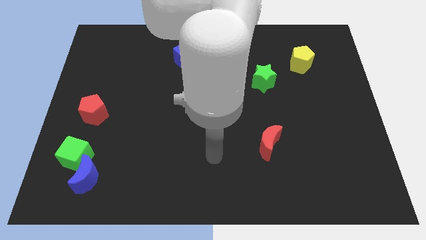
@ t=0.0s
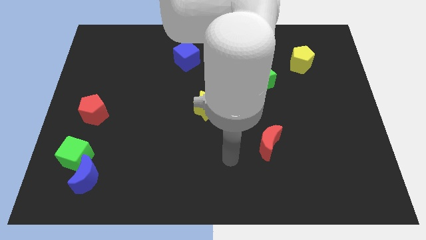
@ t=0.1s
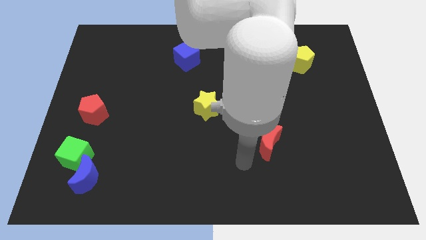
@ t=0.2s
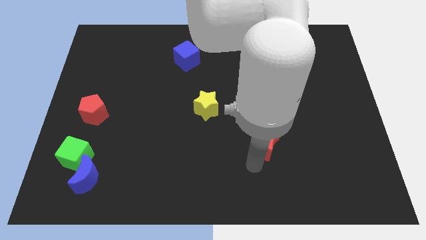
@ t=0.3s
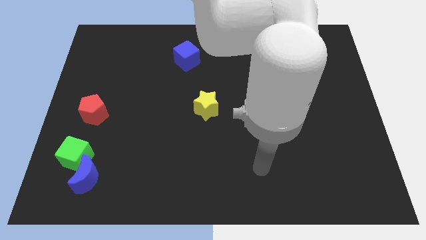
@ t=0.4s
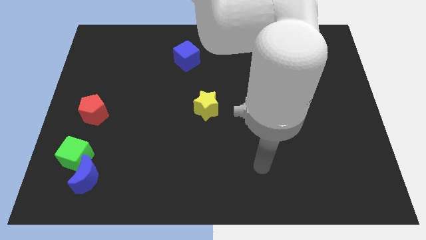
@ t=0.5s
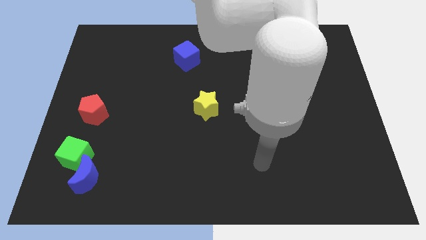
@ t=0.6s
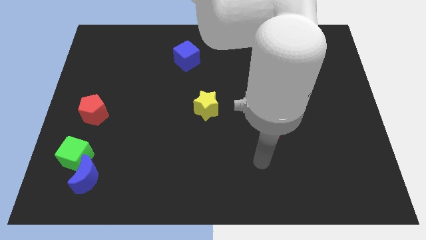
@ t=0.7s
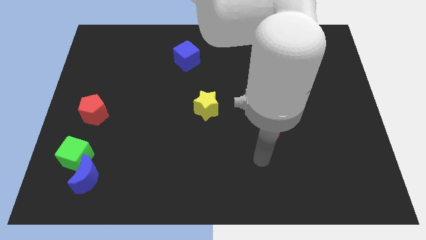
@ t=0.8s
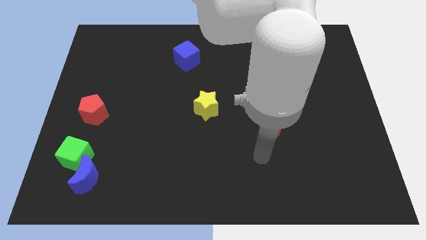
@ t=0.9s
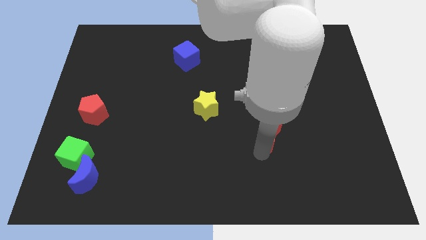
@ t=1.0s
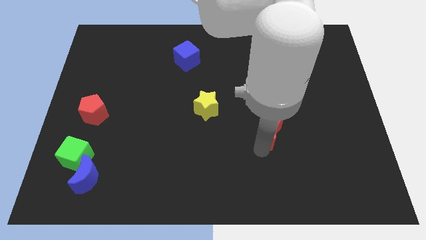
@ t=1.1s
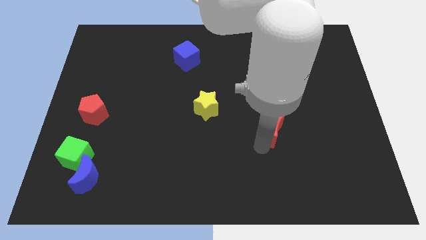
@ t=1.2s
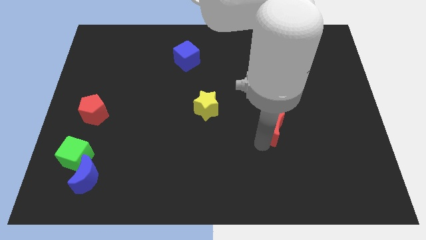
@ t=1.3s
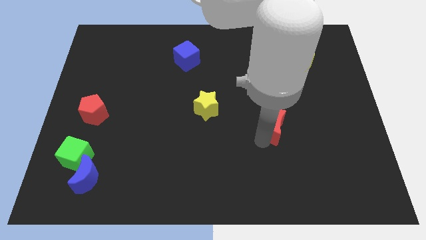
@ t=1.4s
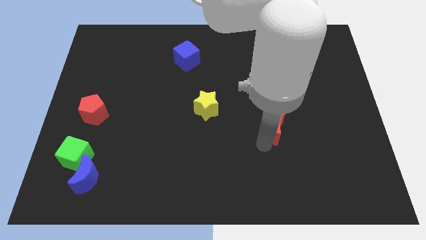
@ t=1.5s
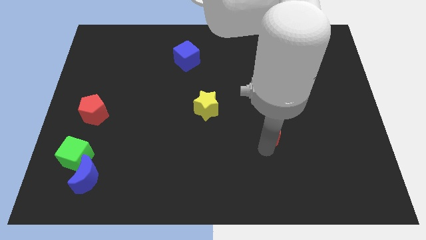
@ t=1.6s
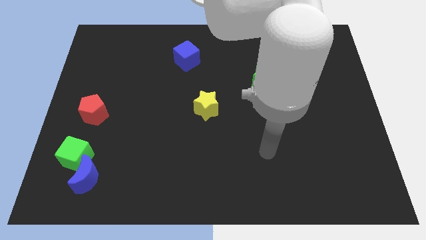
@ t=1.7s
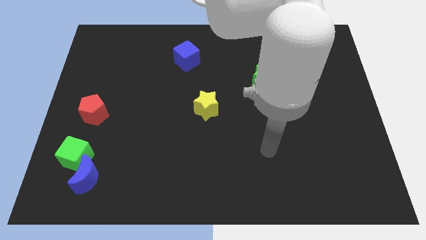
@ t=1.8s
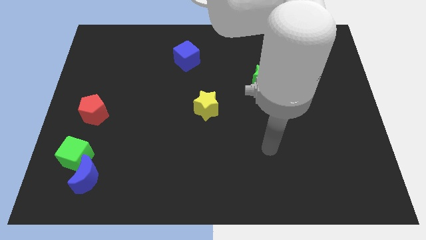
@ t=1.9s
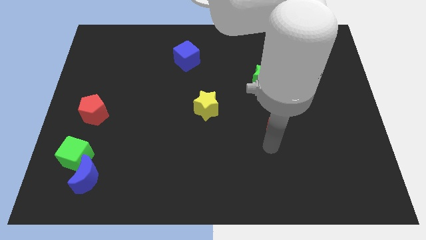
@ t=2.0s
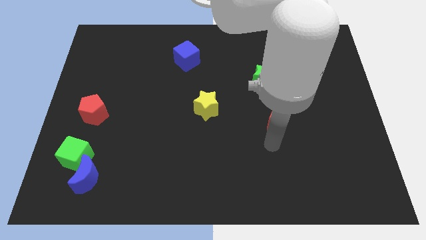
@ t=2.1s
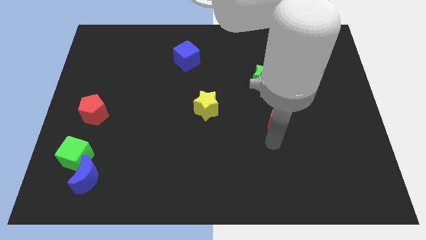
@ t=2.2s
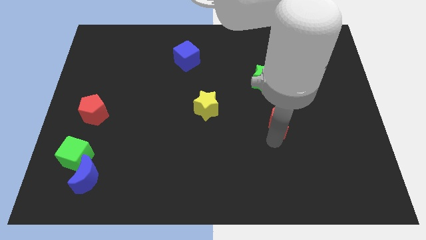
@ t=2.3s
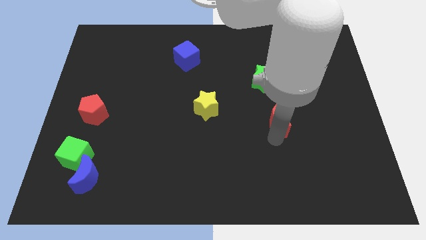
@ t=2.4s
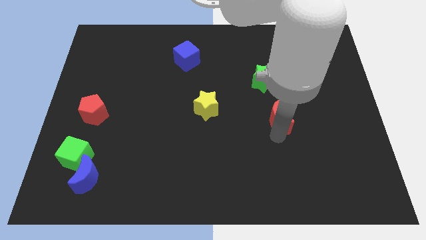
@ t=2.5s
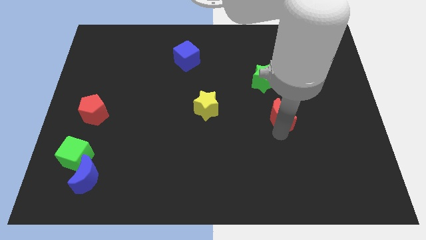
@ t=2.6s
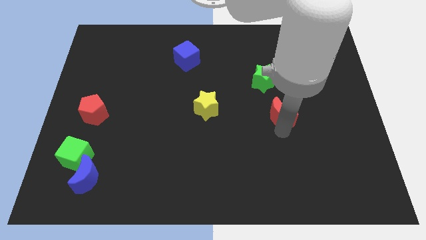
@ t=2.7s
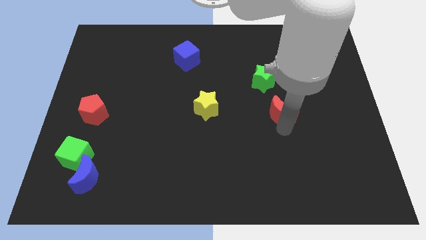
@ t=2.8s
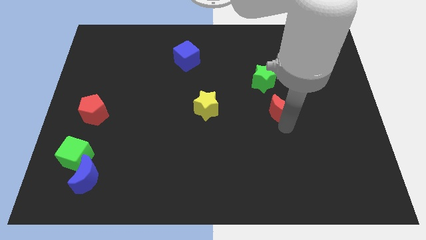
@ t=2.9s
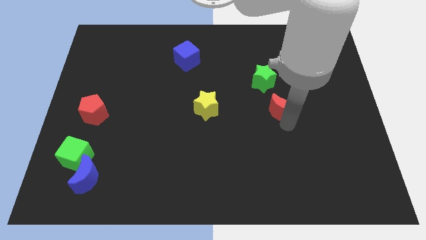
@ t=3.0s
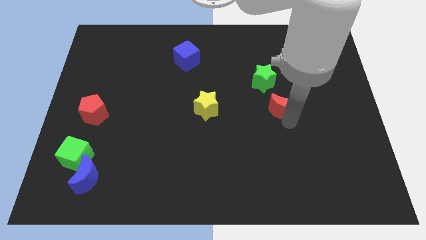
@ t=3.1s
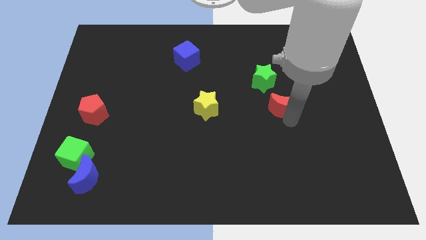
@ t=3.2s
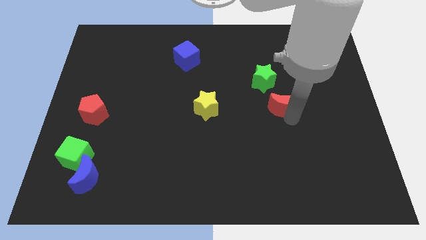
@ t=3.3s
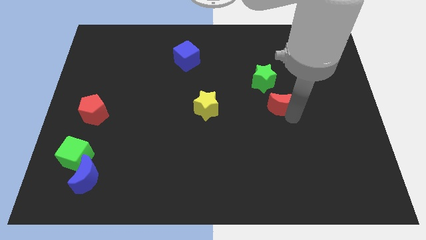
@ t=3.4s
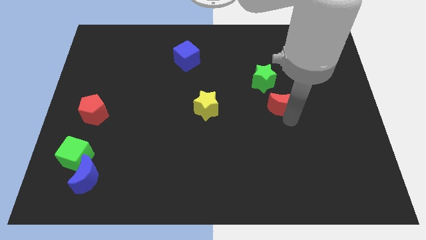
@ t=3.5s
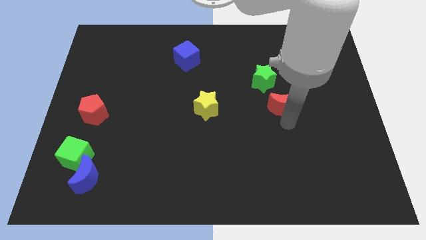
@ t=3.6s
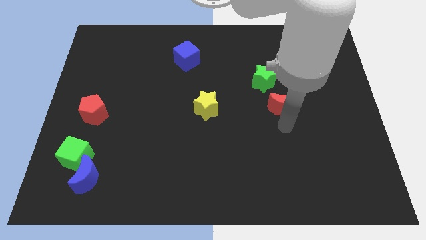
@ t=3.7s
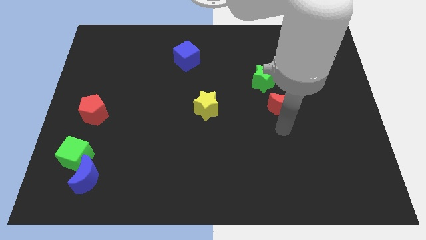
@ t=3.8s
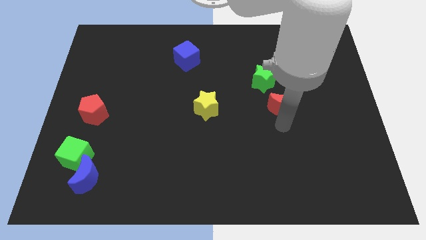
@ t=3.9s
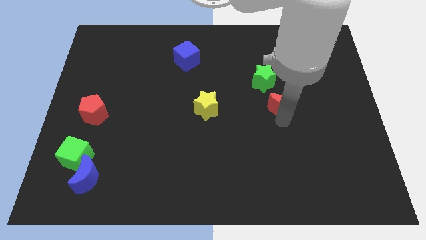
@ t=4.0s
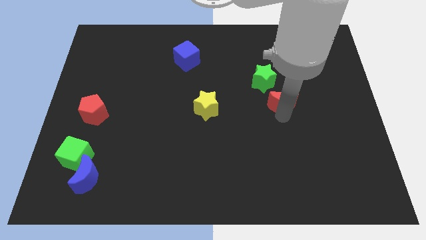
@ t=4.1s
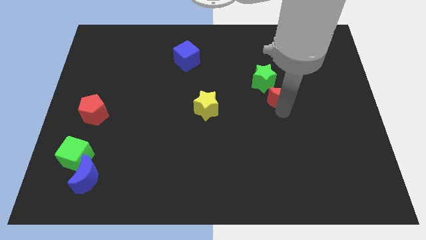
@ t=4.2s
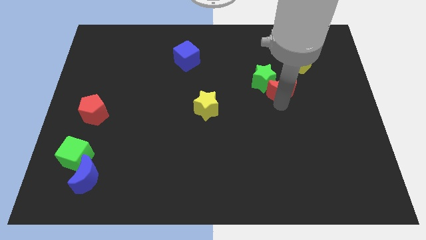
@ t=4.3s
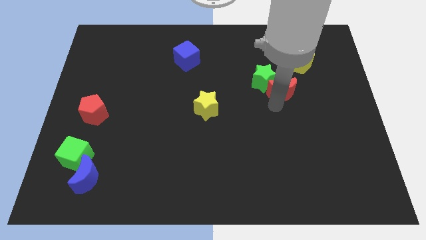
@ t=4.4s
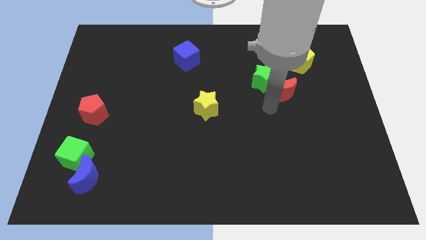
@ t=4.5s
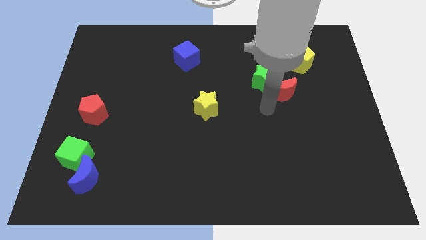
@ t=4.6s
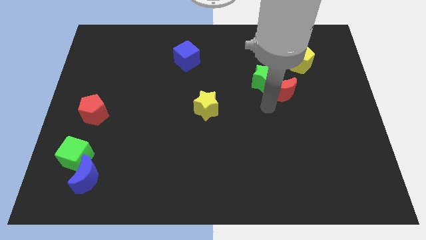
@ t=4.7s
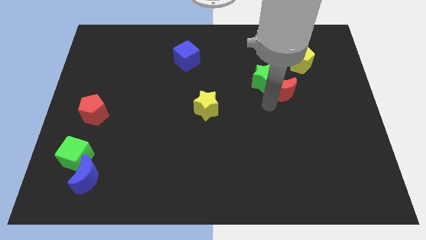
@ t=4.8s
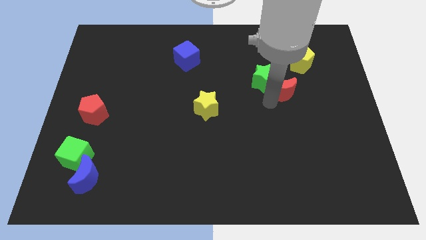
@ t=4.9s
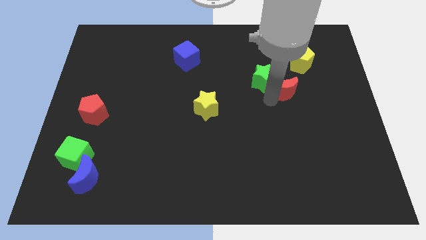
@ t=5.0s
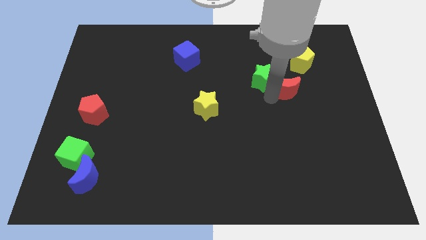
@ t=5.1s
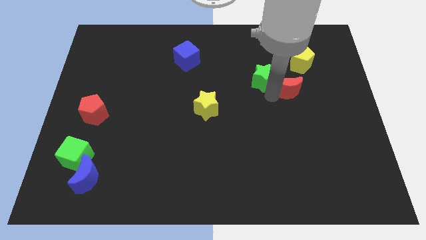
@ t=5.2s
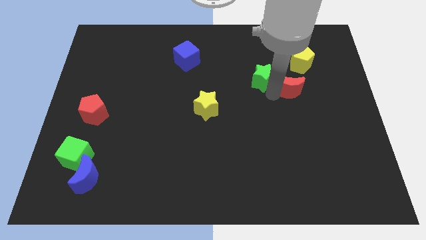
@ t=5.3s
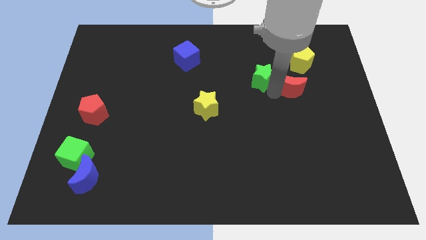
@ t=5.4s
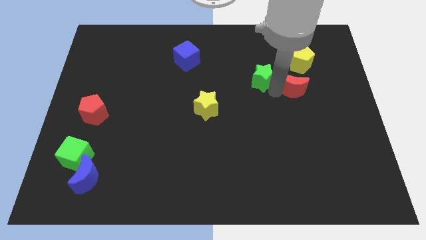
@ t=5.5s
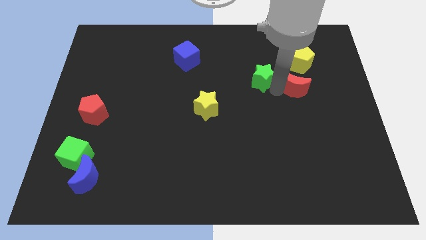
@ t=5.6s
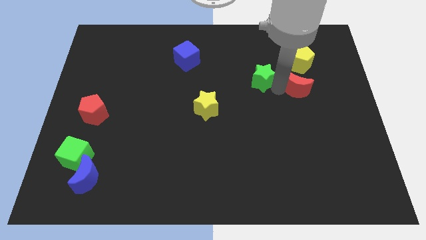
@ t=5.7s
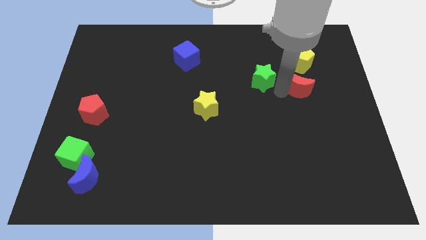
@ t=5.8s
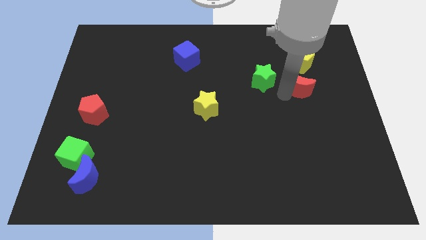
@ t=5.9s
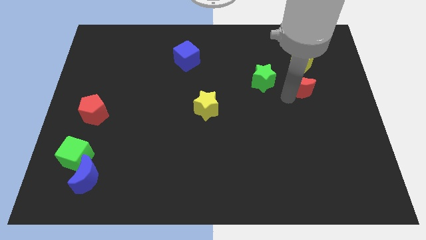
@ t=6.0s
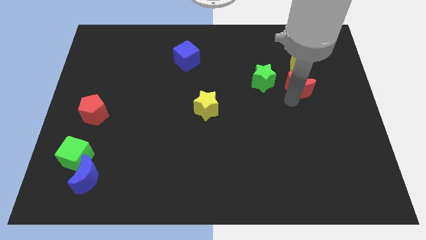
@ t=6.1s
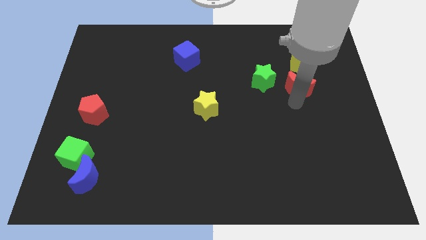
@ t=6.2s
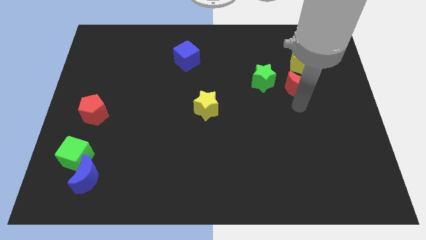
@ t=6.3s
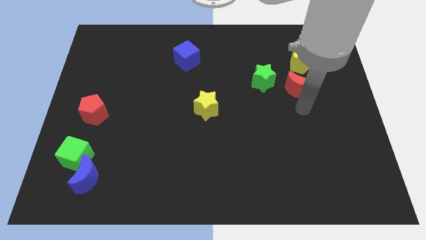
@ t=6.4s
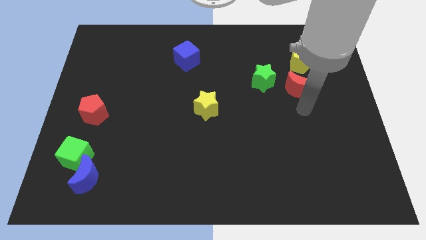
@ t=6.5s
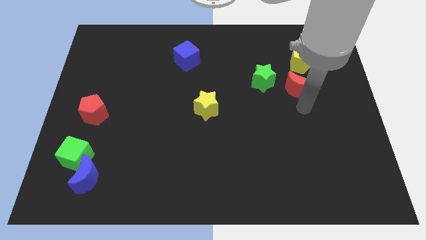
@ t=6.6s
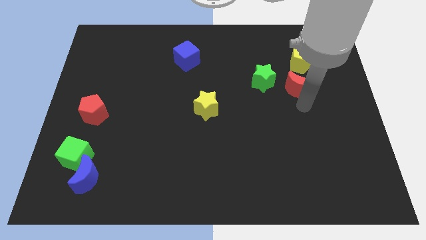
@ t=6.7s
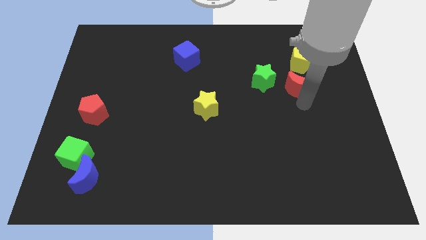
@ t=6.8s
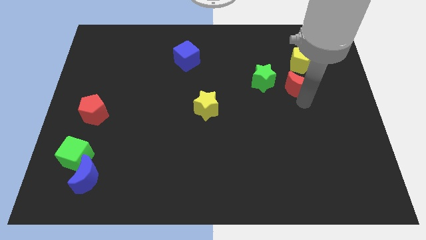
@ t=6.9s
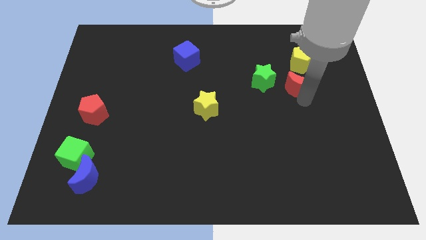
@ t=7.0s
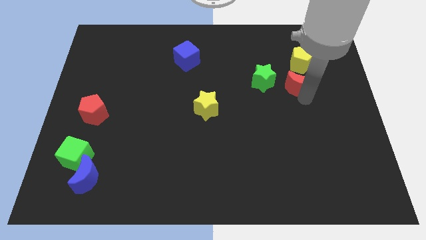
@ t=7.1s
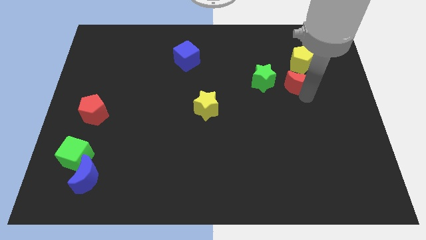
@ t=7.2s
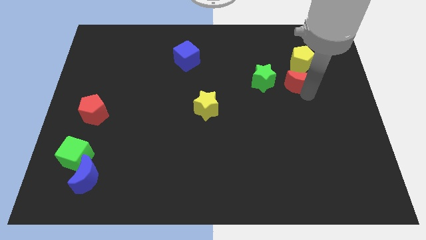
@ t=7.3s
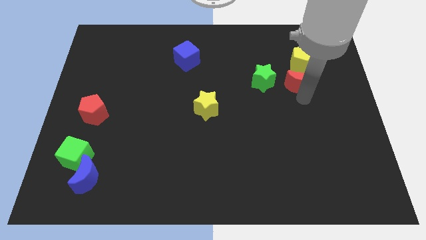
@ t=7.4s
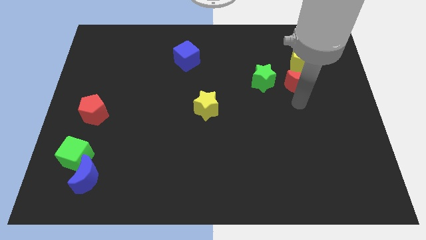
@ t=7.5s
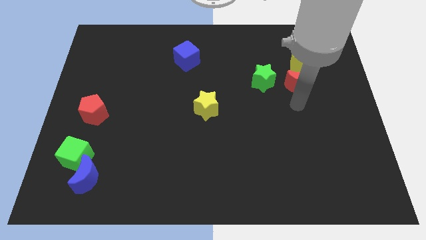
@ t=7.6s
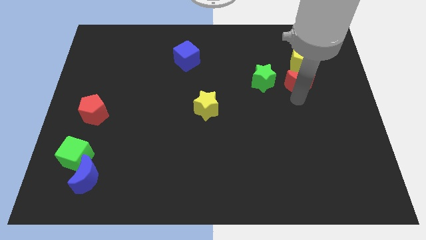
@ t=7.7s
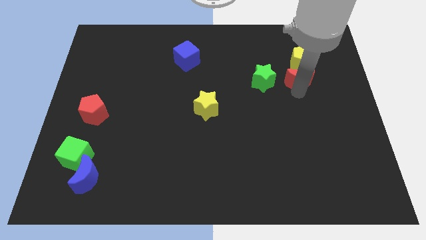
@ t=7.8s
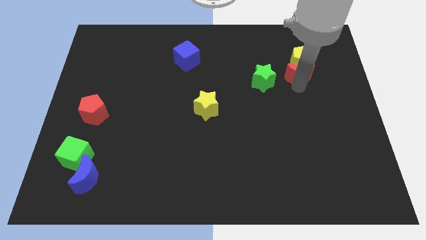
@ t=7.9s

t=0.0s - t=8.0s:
slide the red moon next to the yellow pentagon
